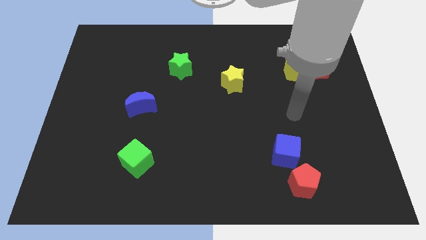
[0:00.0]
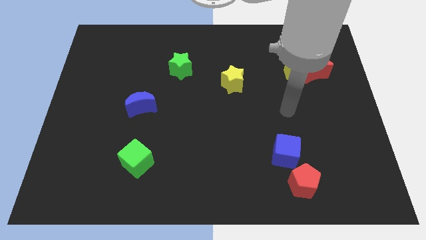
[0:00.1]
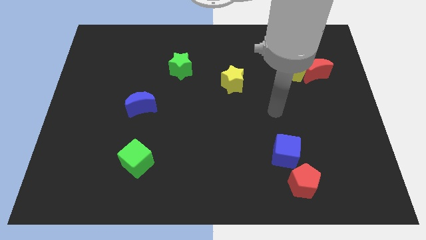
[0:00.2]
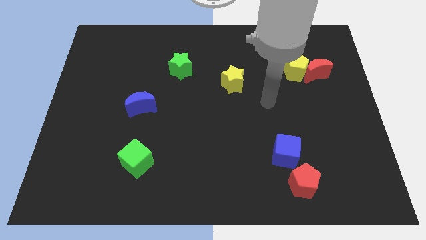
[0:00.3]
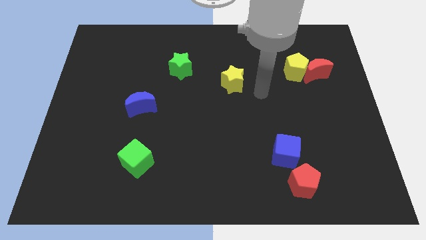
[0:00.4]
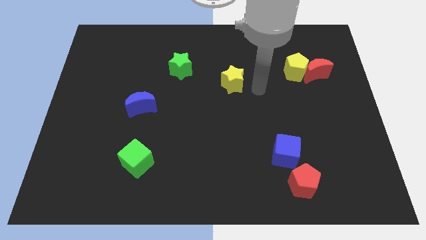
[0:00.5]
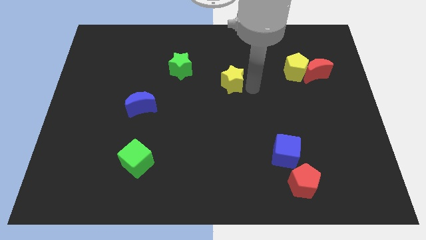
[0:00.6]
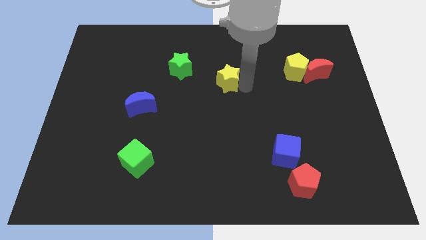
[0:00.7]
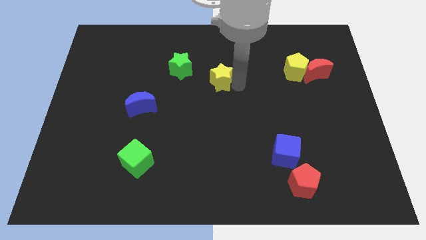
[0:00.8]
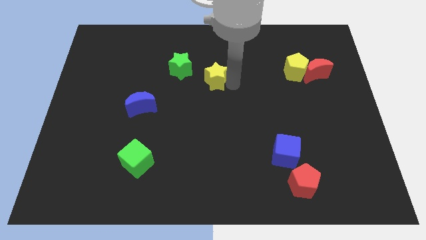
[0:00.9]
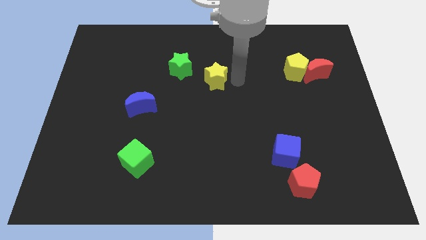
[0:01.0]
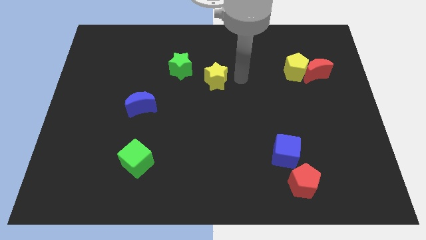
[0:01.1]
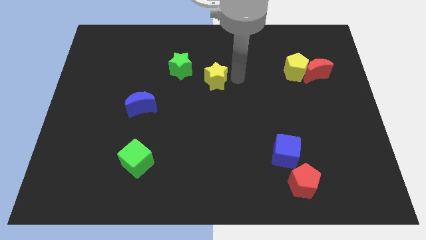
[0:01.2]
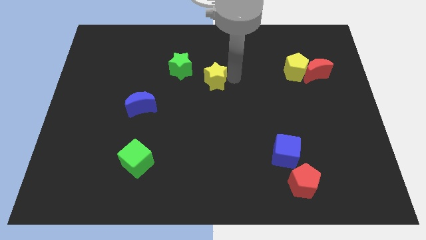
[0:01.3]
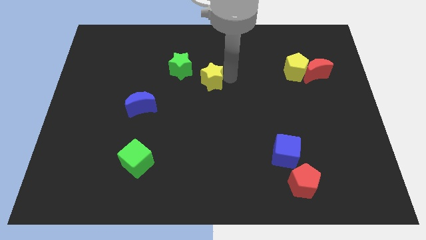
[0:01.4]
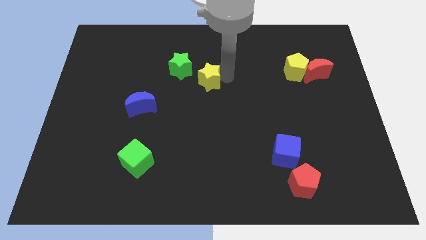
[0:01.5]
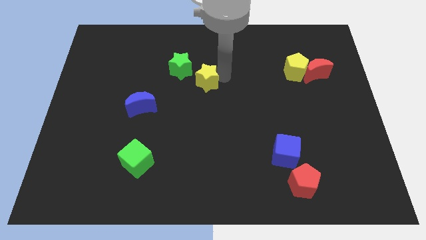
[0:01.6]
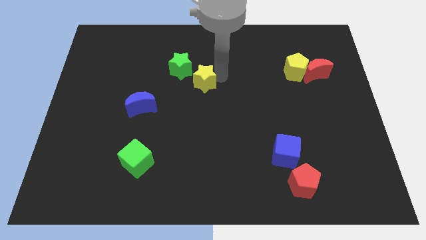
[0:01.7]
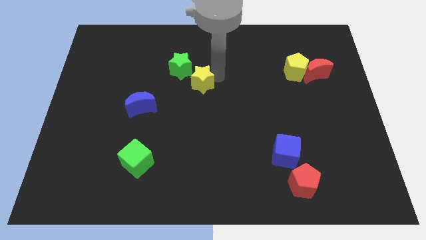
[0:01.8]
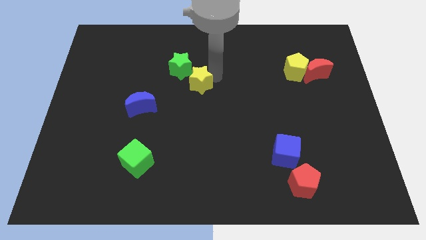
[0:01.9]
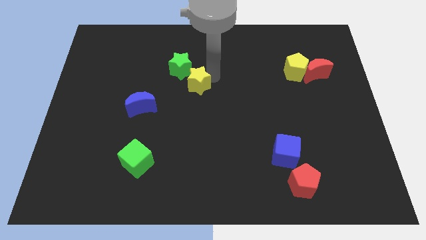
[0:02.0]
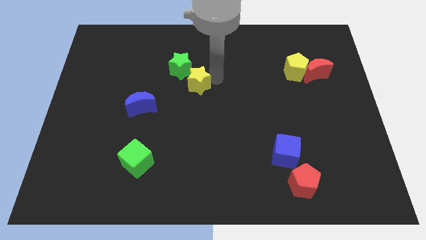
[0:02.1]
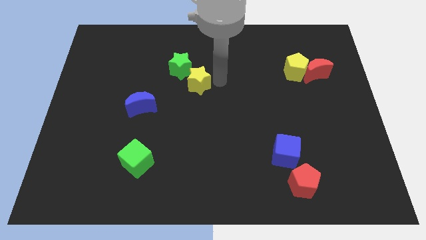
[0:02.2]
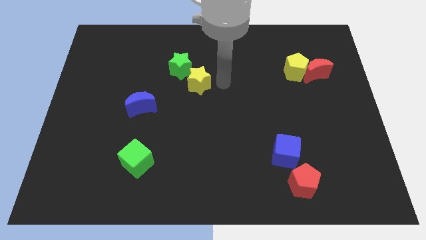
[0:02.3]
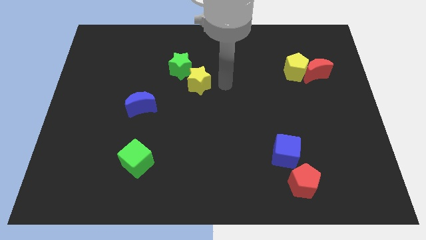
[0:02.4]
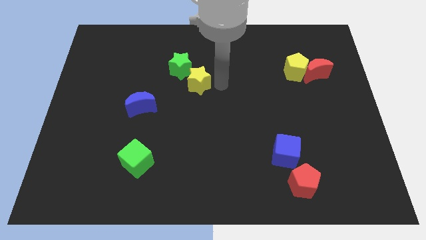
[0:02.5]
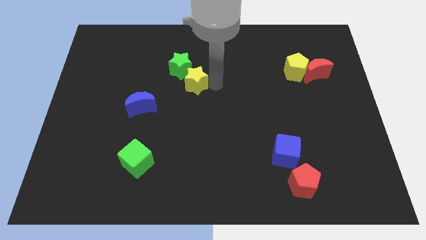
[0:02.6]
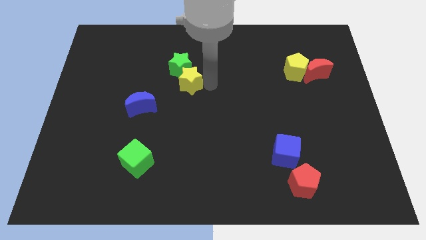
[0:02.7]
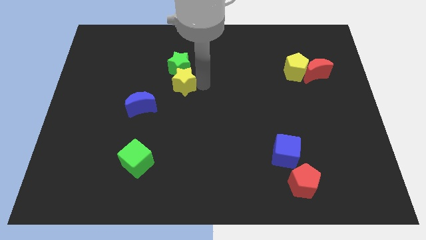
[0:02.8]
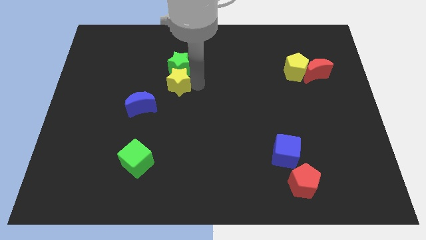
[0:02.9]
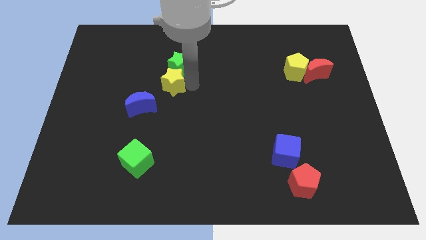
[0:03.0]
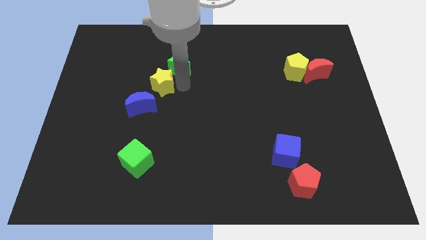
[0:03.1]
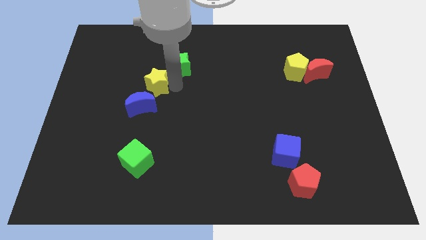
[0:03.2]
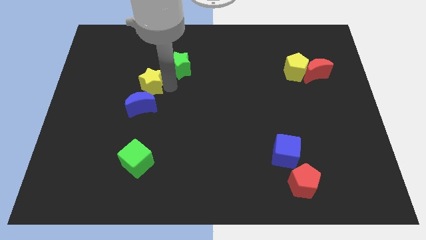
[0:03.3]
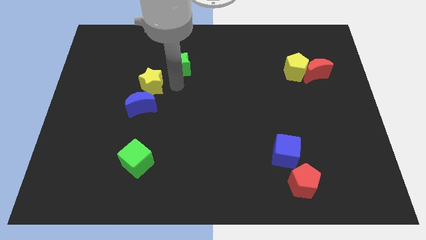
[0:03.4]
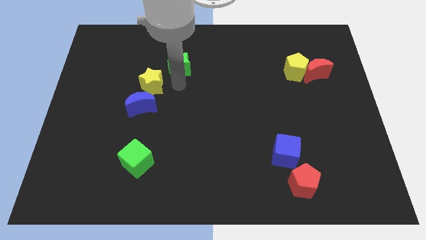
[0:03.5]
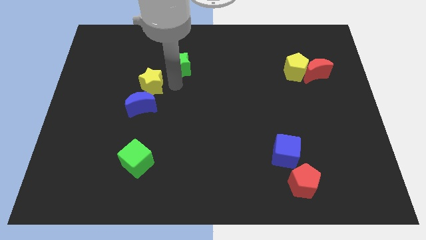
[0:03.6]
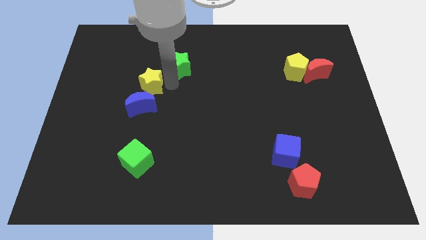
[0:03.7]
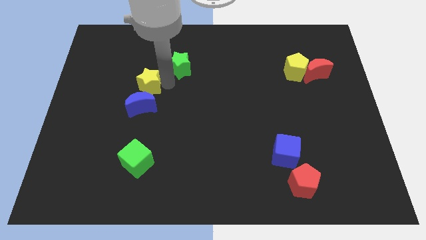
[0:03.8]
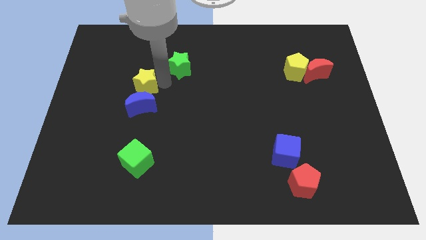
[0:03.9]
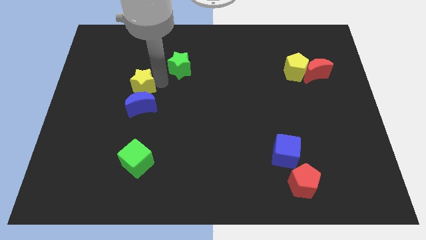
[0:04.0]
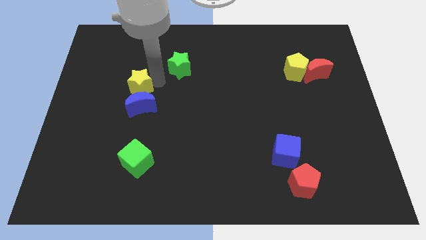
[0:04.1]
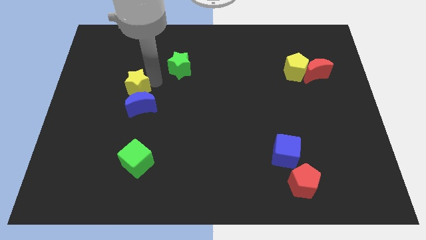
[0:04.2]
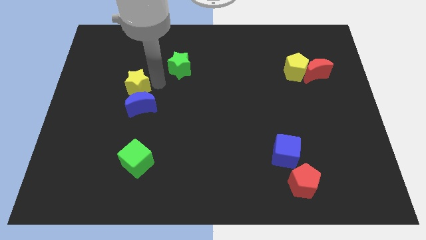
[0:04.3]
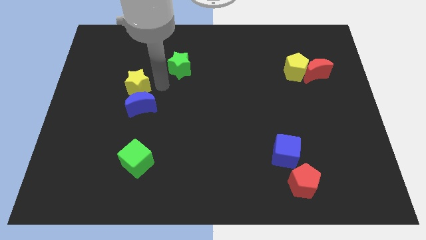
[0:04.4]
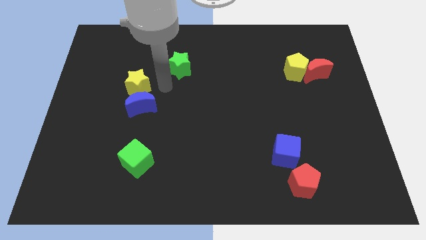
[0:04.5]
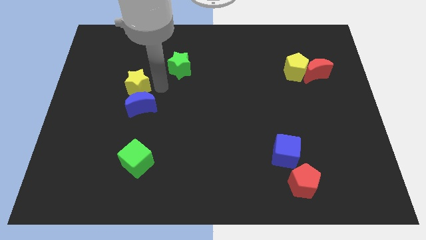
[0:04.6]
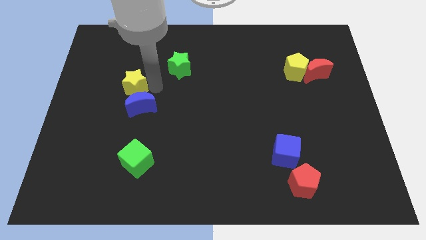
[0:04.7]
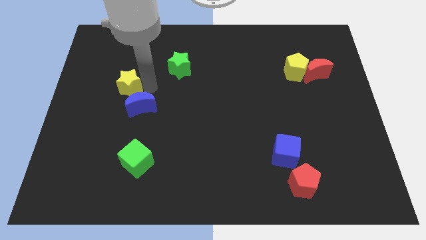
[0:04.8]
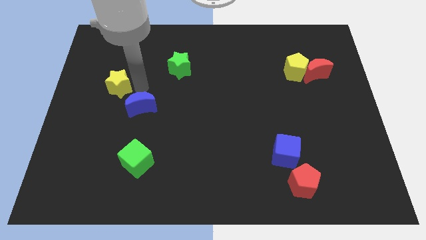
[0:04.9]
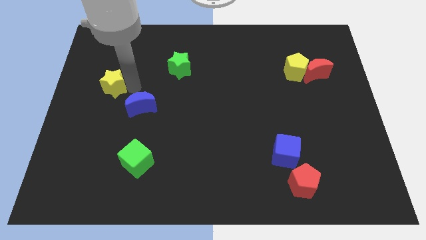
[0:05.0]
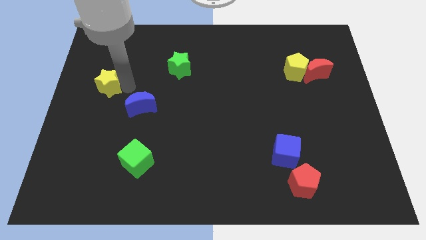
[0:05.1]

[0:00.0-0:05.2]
move the yellow star to the center left

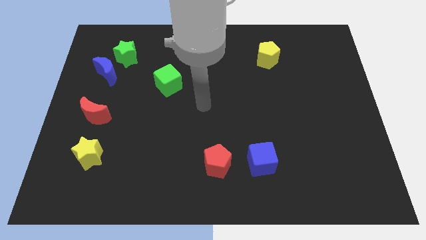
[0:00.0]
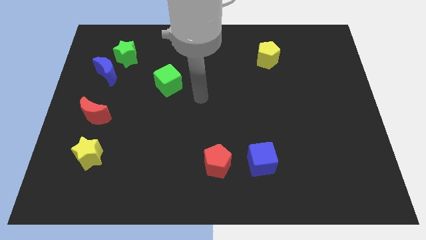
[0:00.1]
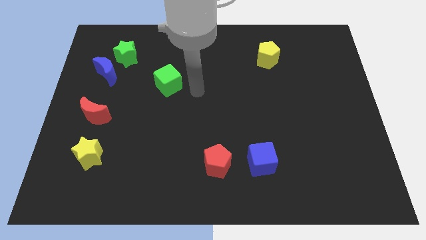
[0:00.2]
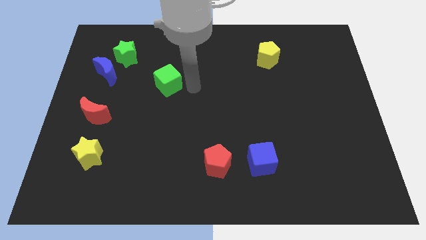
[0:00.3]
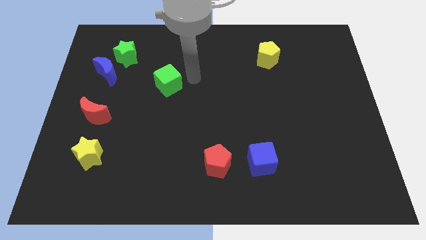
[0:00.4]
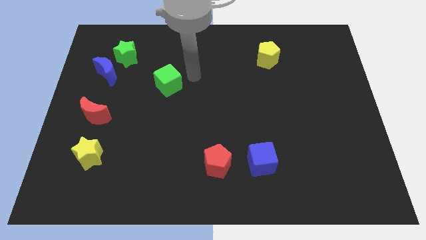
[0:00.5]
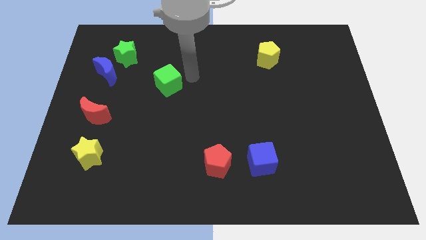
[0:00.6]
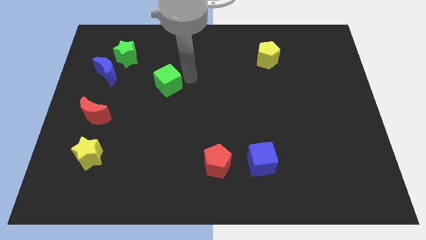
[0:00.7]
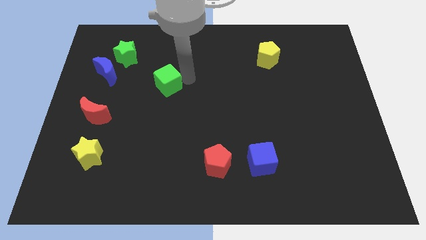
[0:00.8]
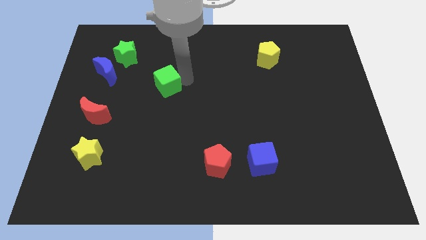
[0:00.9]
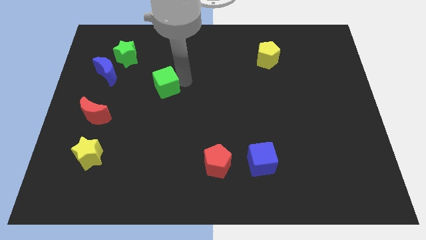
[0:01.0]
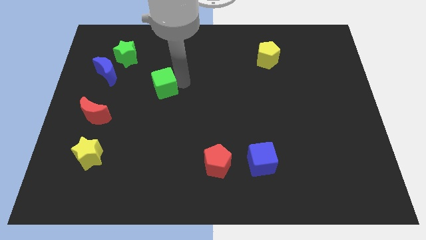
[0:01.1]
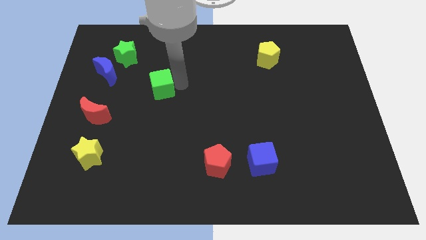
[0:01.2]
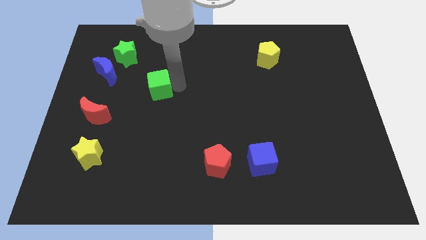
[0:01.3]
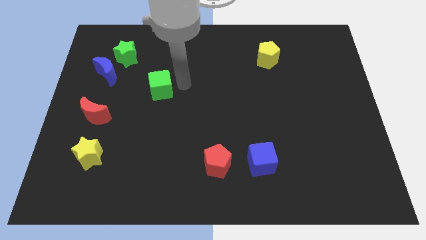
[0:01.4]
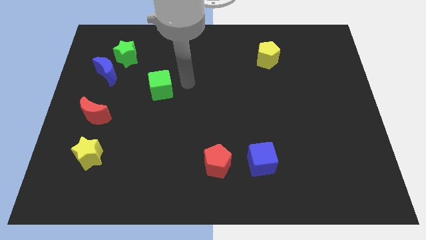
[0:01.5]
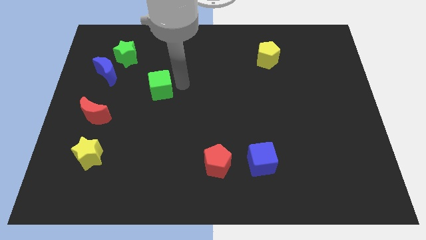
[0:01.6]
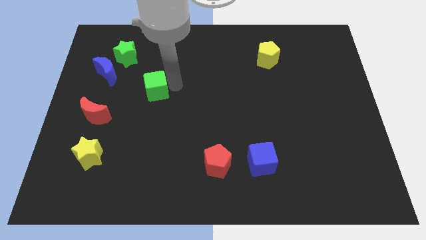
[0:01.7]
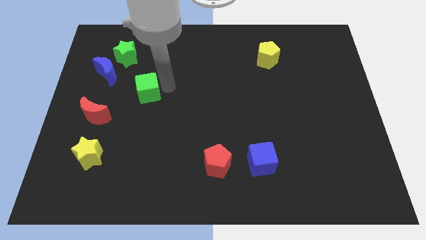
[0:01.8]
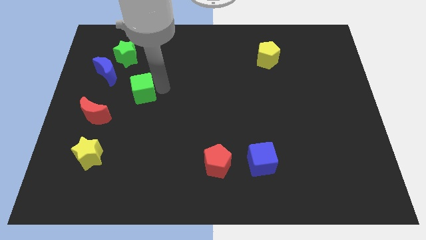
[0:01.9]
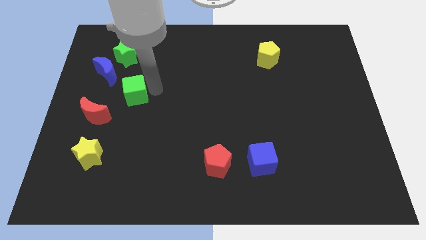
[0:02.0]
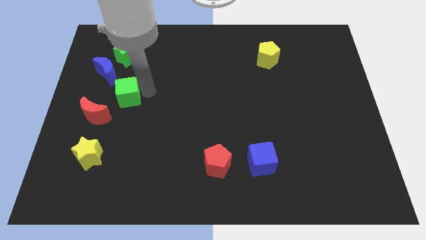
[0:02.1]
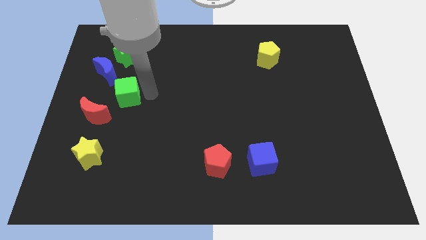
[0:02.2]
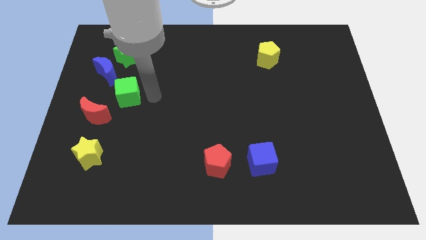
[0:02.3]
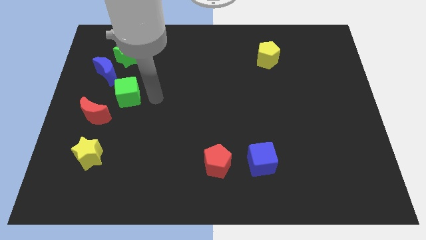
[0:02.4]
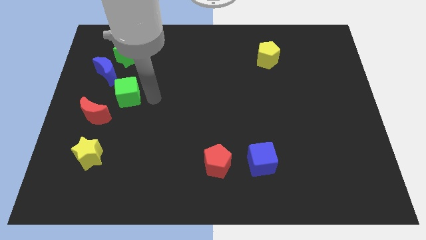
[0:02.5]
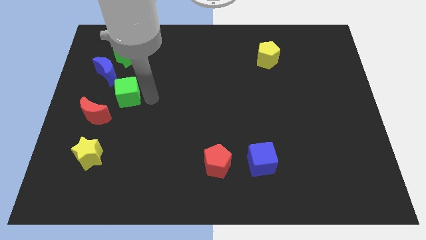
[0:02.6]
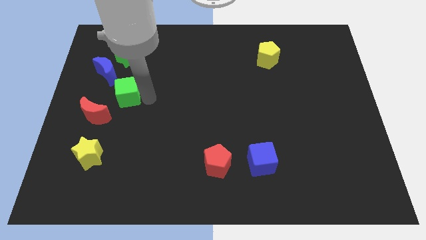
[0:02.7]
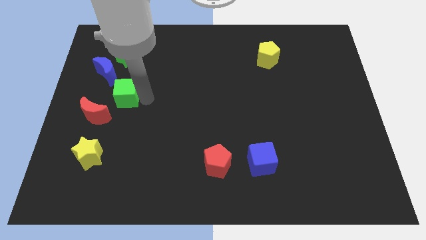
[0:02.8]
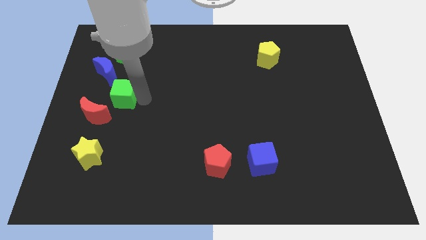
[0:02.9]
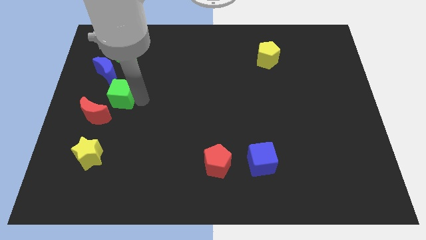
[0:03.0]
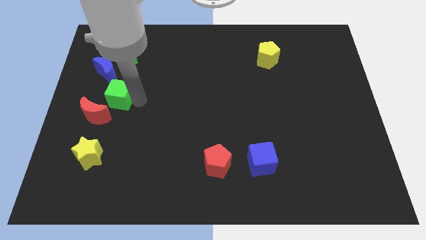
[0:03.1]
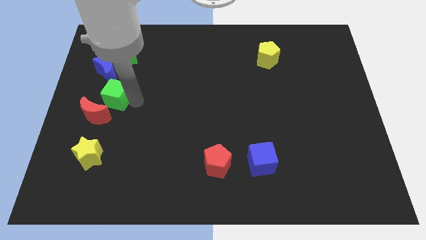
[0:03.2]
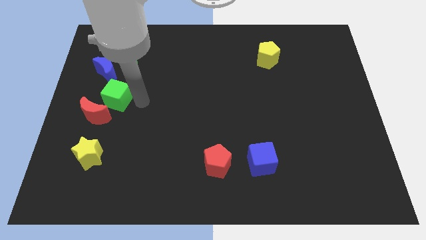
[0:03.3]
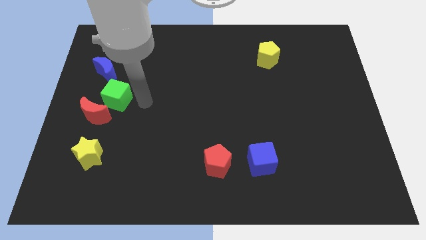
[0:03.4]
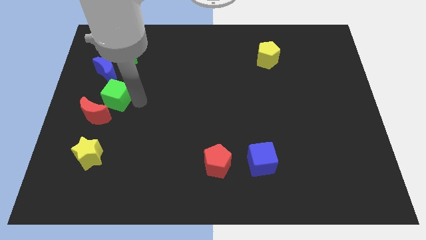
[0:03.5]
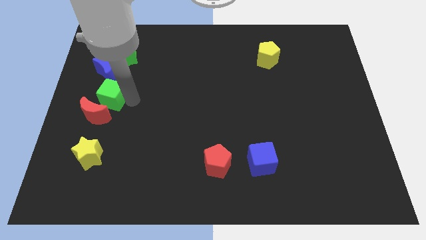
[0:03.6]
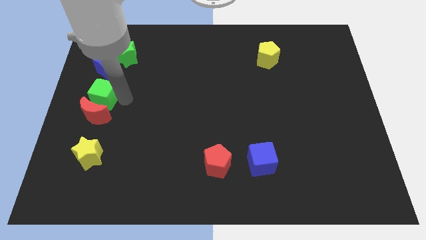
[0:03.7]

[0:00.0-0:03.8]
slide the green cube to the left side
